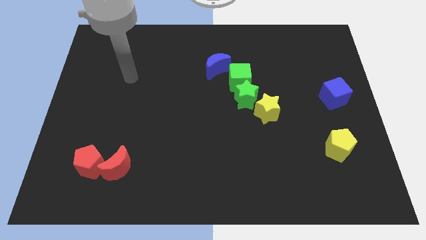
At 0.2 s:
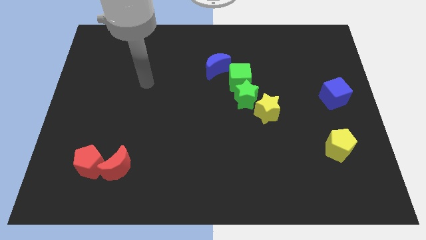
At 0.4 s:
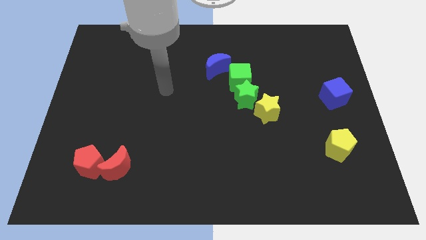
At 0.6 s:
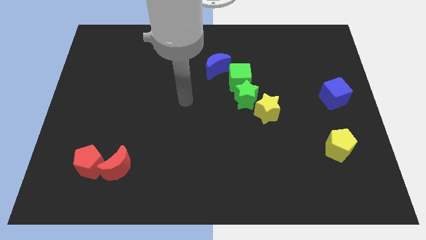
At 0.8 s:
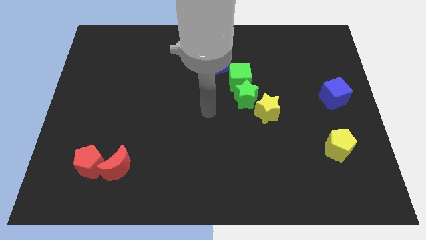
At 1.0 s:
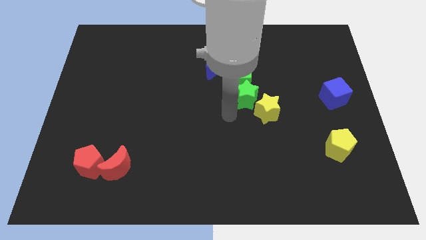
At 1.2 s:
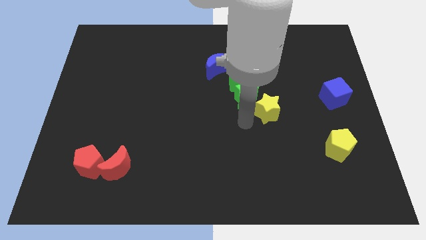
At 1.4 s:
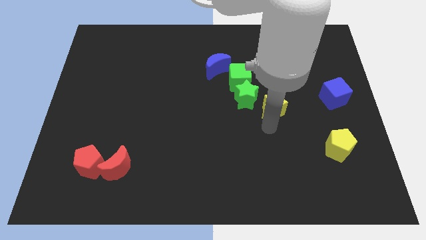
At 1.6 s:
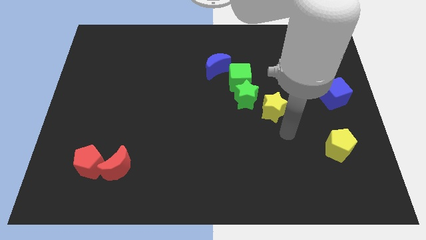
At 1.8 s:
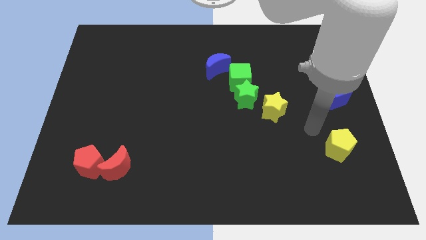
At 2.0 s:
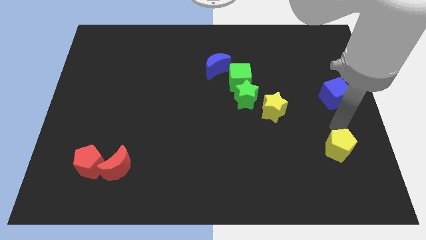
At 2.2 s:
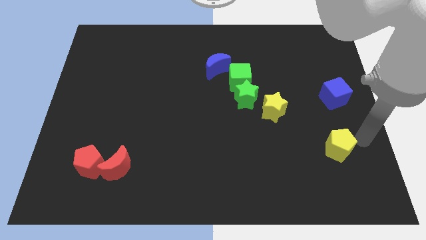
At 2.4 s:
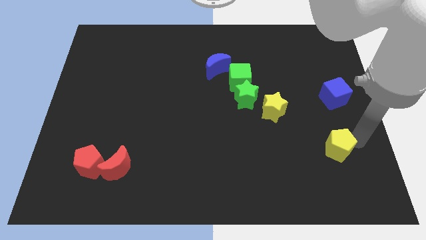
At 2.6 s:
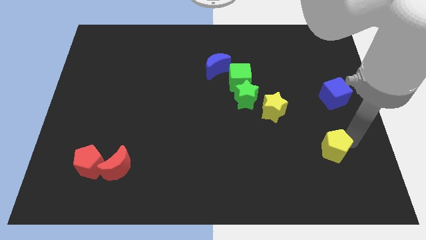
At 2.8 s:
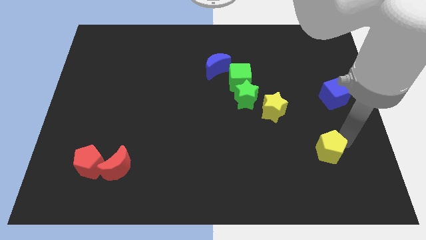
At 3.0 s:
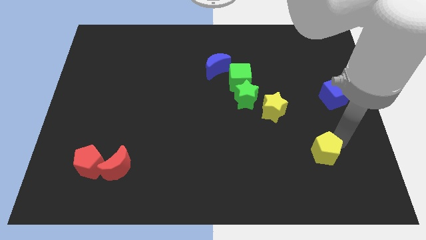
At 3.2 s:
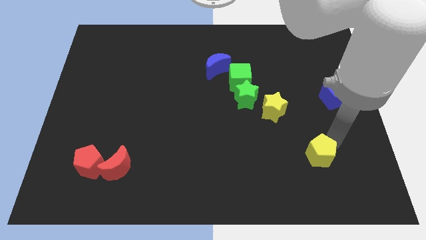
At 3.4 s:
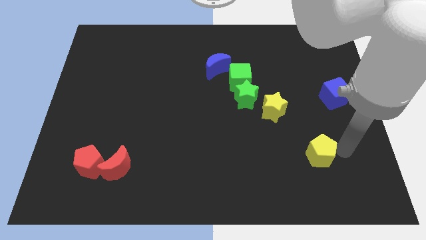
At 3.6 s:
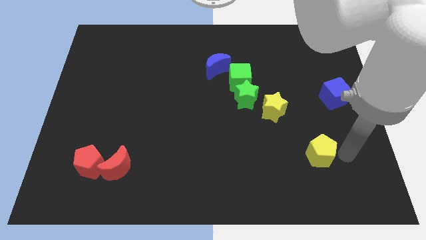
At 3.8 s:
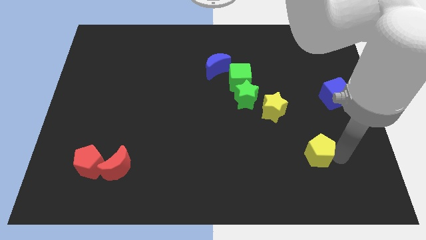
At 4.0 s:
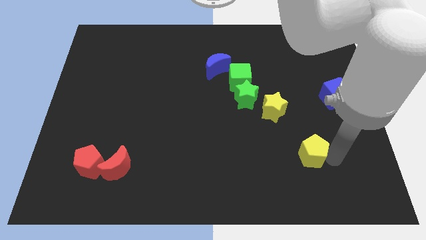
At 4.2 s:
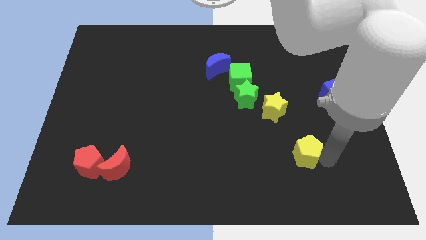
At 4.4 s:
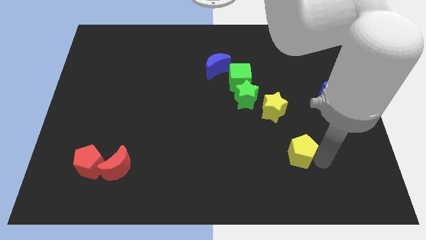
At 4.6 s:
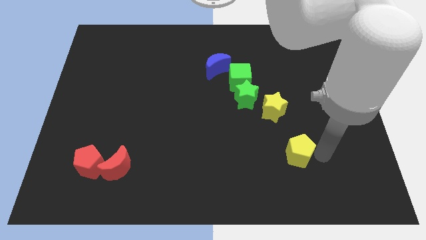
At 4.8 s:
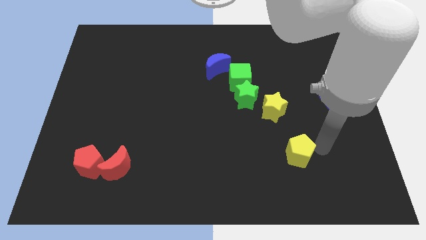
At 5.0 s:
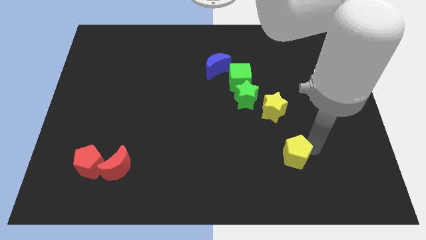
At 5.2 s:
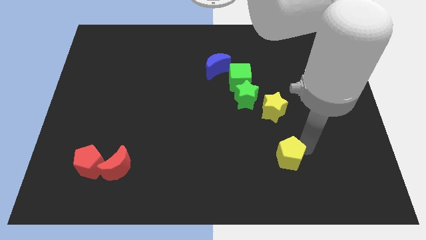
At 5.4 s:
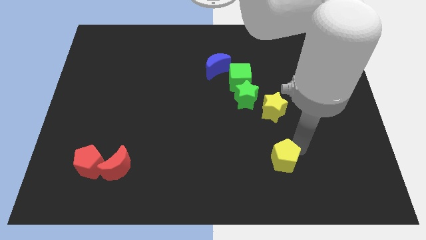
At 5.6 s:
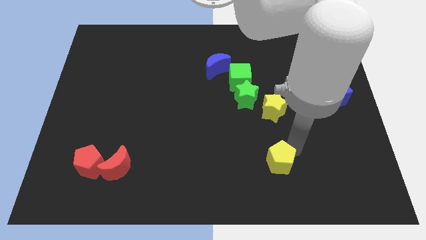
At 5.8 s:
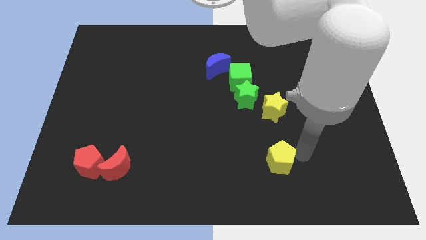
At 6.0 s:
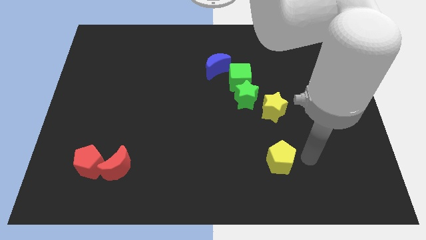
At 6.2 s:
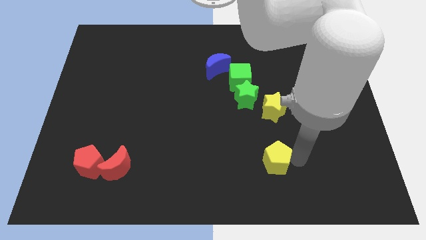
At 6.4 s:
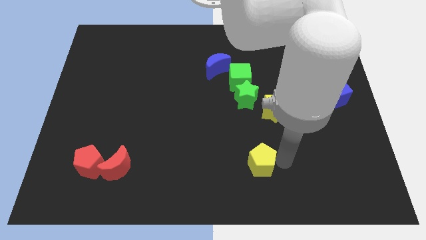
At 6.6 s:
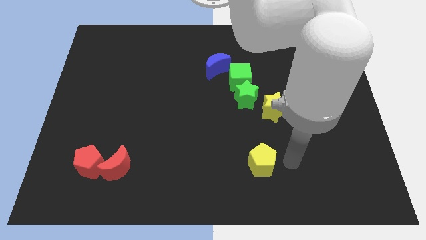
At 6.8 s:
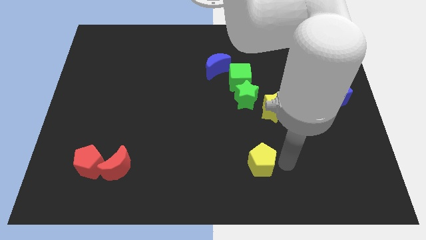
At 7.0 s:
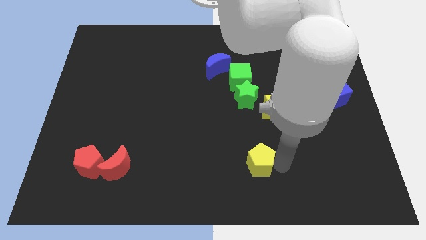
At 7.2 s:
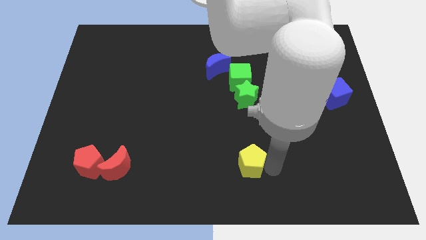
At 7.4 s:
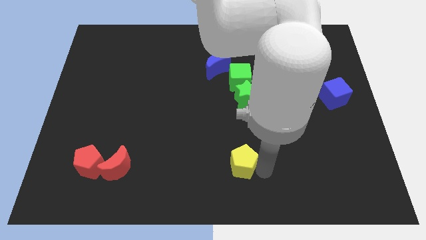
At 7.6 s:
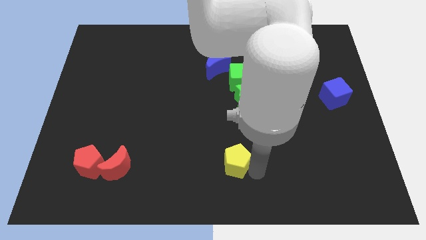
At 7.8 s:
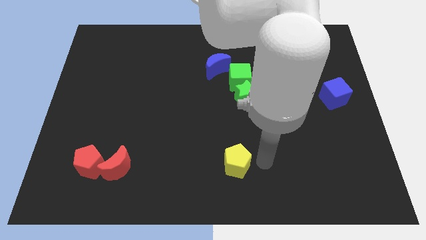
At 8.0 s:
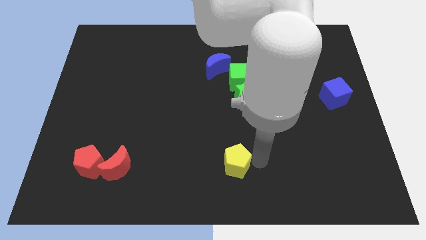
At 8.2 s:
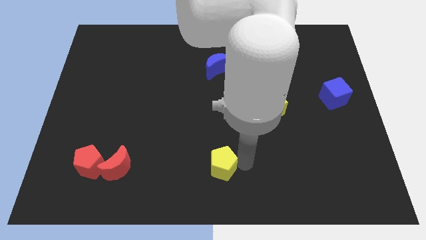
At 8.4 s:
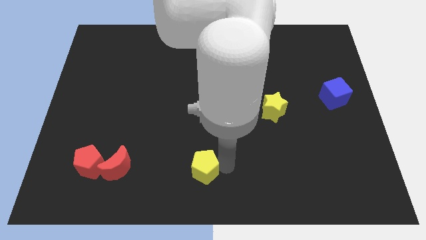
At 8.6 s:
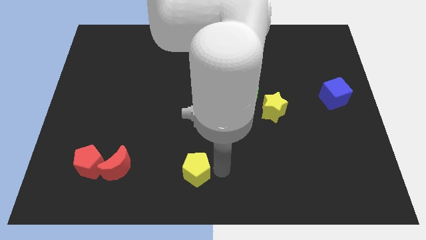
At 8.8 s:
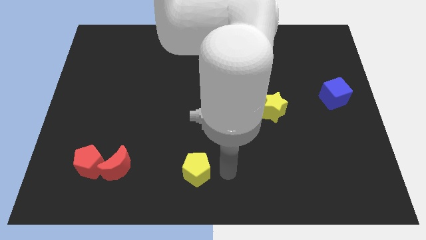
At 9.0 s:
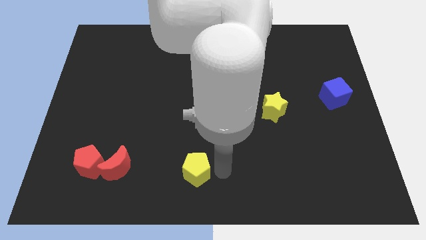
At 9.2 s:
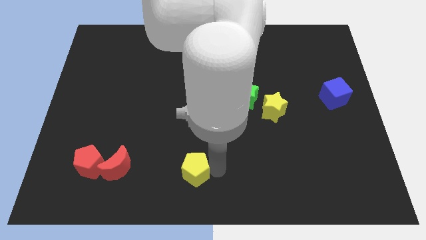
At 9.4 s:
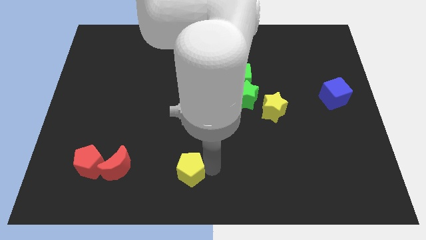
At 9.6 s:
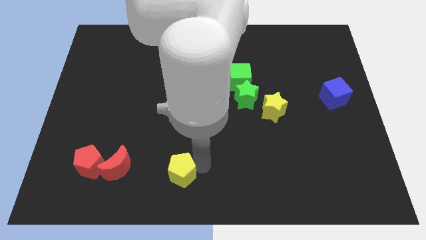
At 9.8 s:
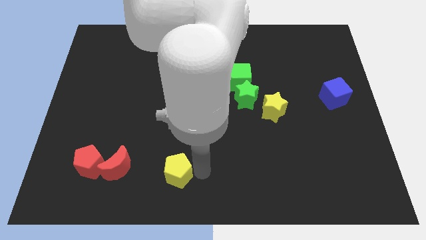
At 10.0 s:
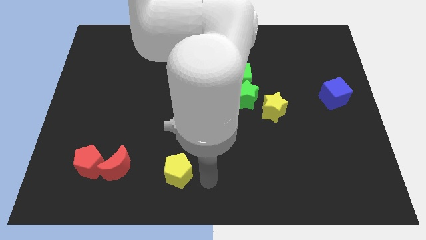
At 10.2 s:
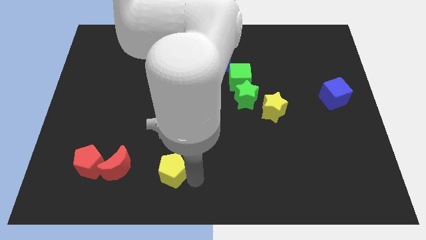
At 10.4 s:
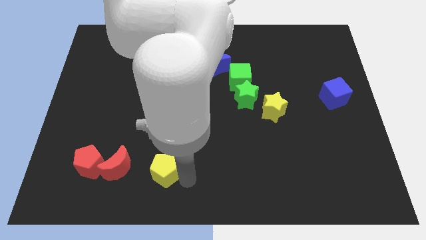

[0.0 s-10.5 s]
move the yellow pentagon to the right side of the red pentagon

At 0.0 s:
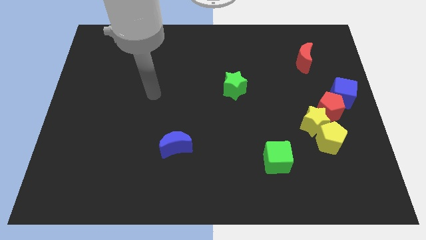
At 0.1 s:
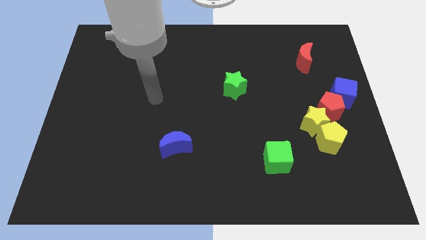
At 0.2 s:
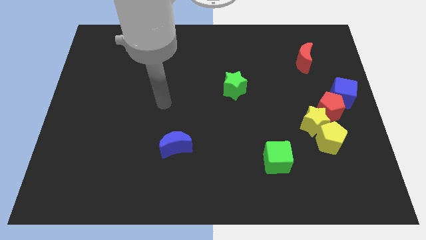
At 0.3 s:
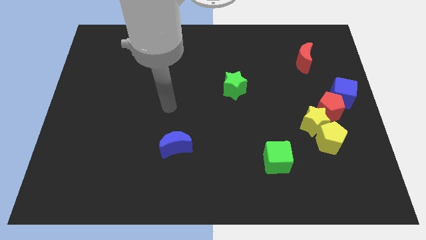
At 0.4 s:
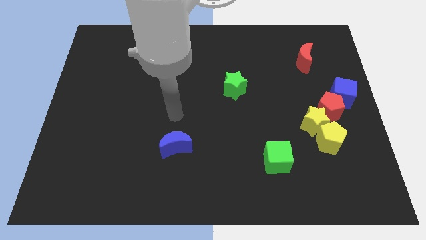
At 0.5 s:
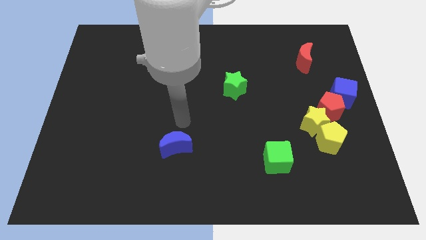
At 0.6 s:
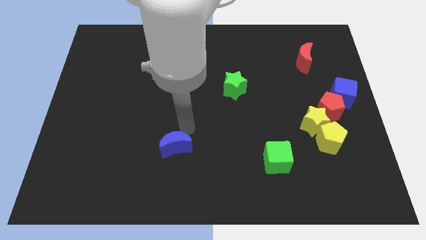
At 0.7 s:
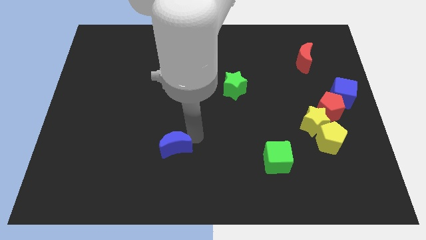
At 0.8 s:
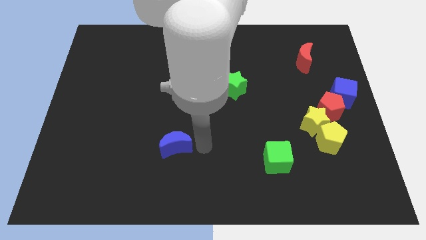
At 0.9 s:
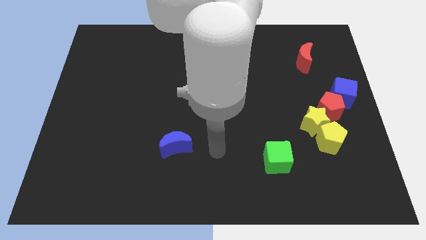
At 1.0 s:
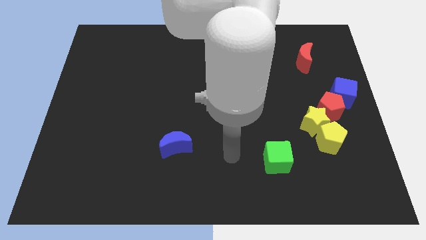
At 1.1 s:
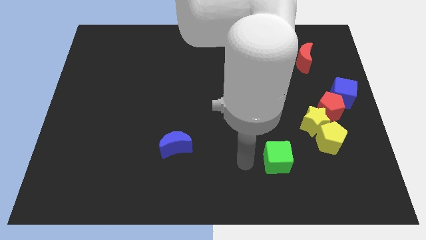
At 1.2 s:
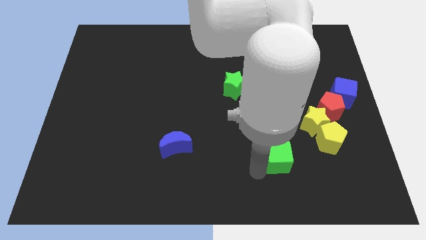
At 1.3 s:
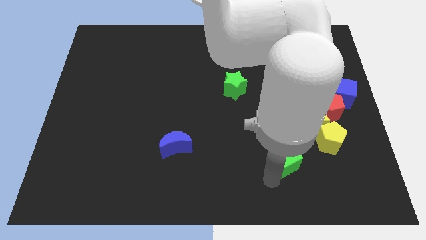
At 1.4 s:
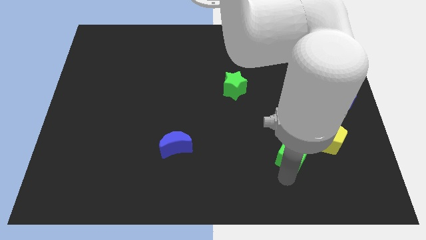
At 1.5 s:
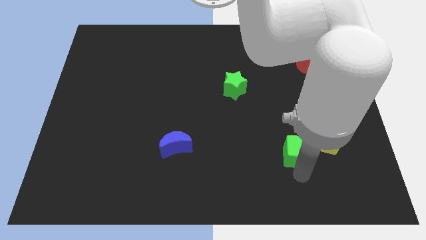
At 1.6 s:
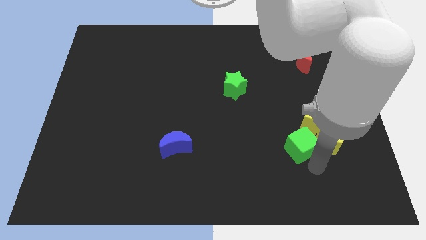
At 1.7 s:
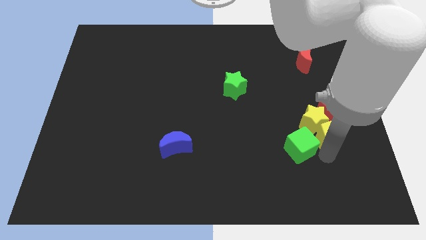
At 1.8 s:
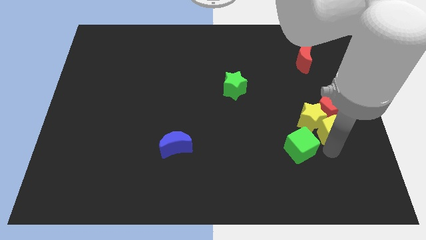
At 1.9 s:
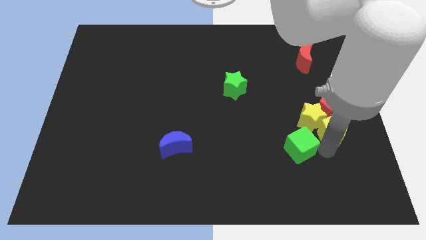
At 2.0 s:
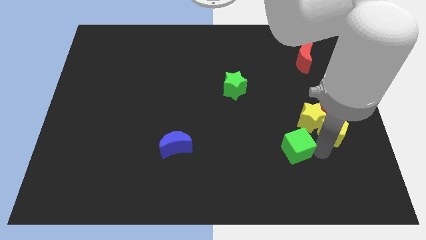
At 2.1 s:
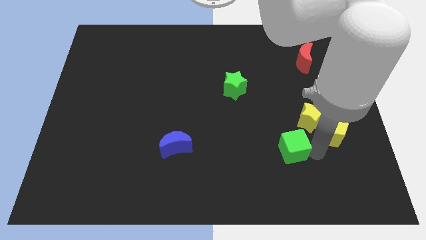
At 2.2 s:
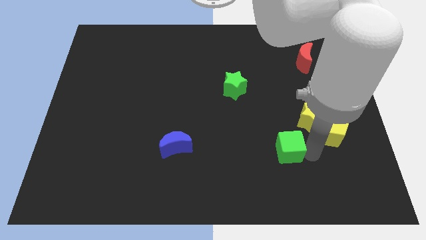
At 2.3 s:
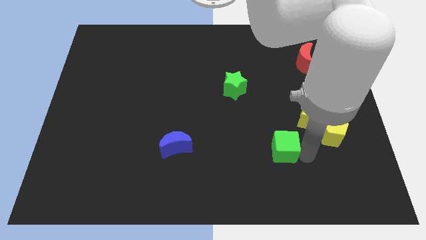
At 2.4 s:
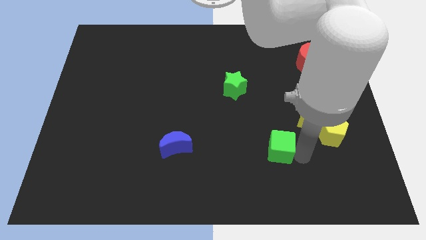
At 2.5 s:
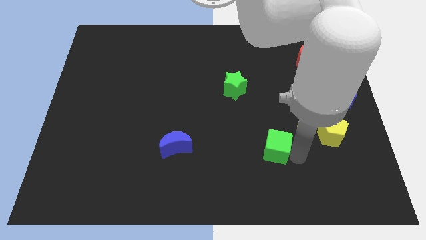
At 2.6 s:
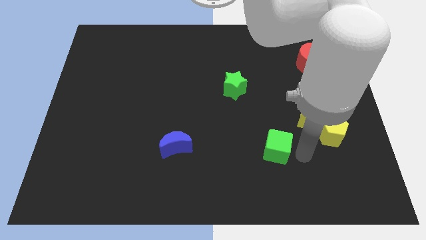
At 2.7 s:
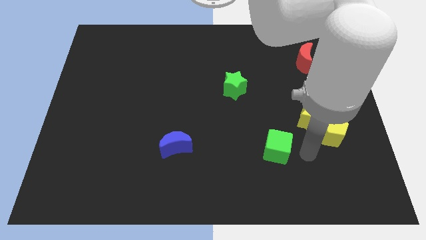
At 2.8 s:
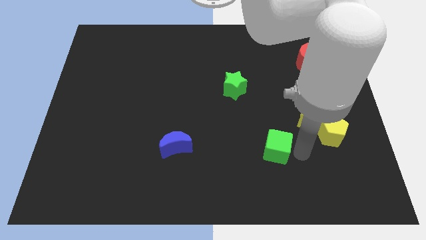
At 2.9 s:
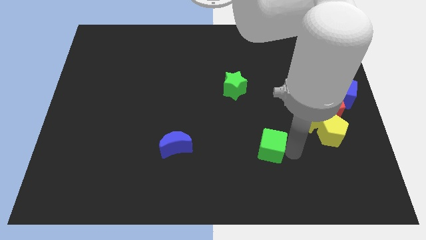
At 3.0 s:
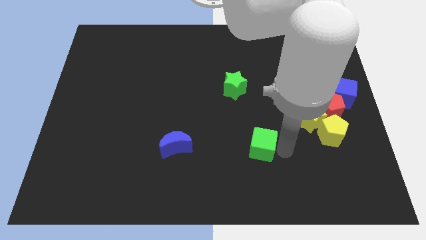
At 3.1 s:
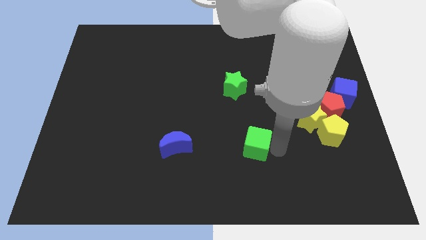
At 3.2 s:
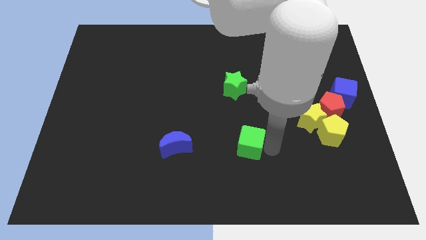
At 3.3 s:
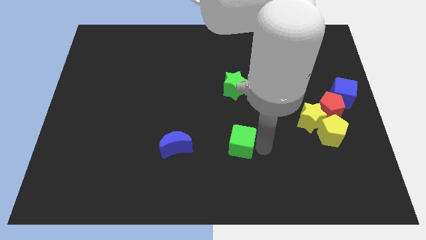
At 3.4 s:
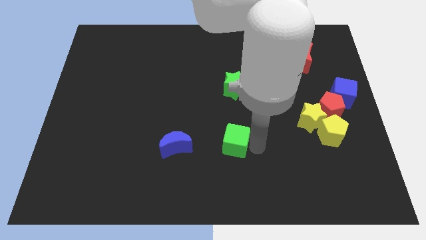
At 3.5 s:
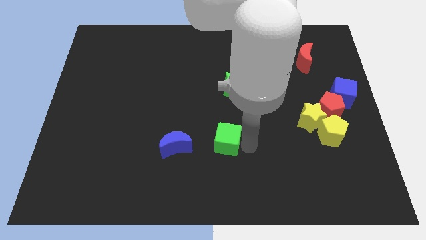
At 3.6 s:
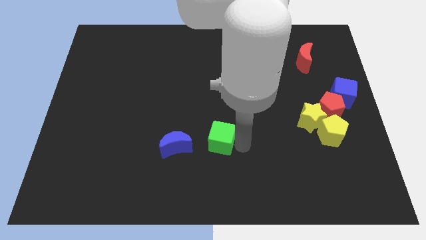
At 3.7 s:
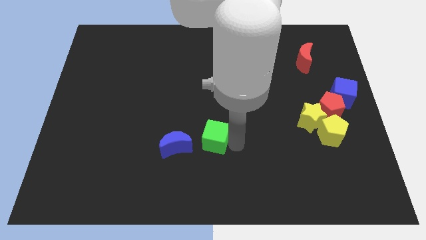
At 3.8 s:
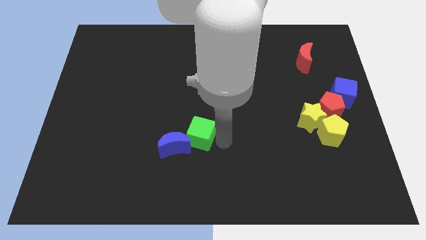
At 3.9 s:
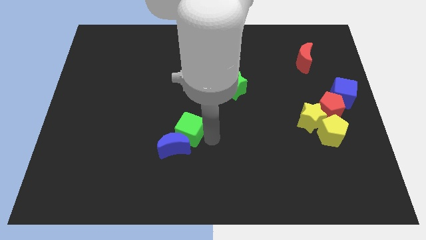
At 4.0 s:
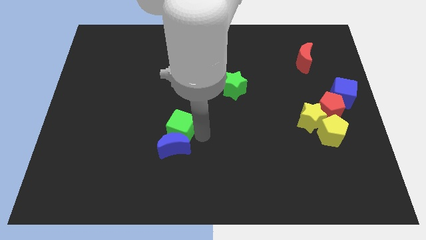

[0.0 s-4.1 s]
move the green cube diagonally up and to the left of the blue moon
